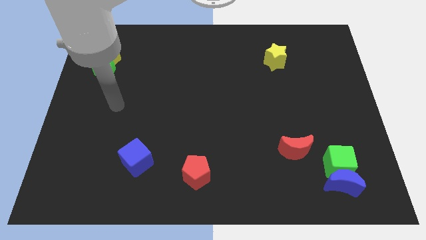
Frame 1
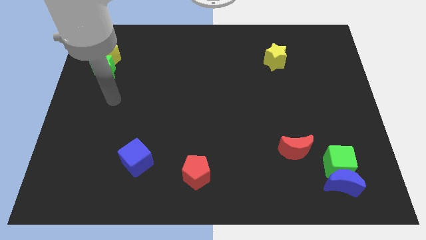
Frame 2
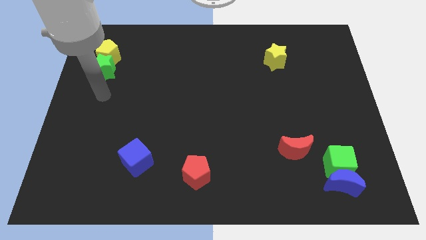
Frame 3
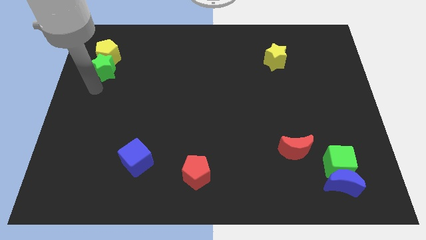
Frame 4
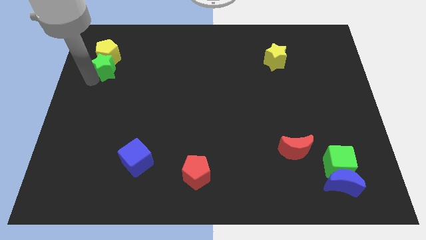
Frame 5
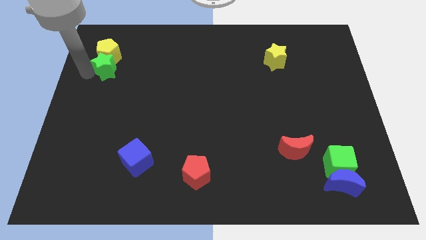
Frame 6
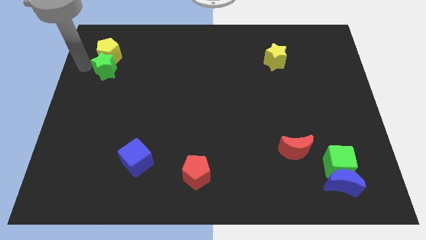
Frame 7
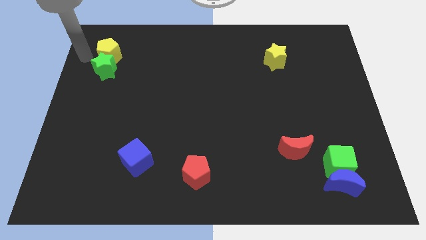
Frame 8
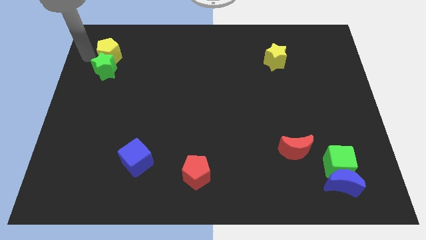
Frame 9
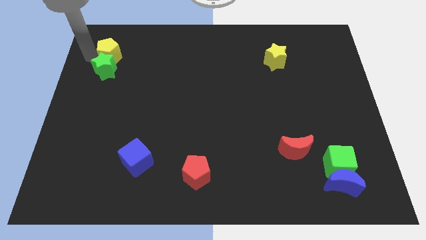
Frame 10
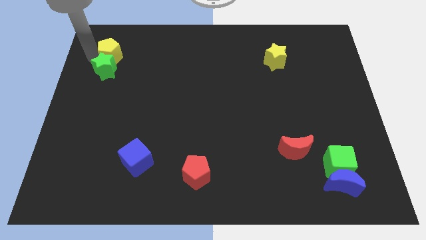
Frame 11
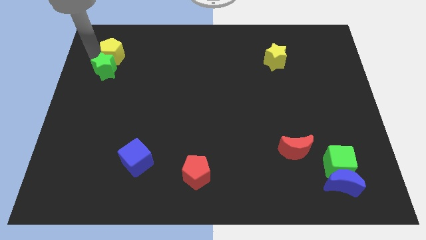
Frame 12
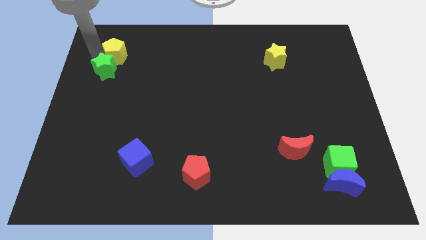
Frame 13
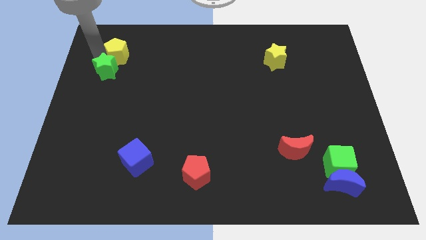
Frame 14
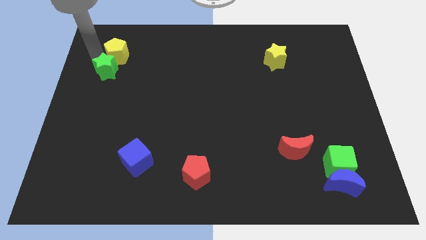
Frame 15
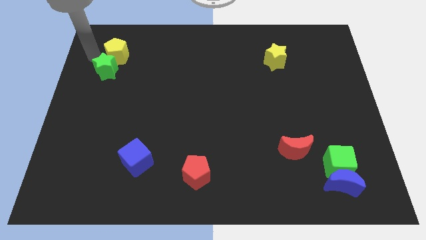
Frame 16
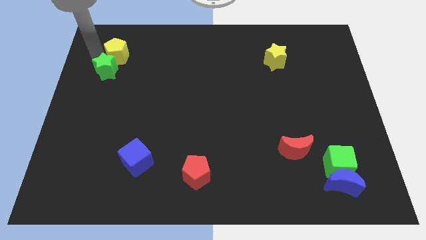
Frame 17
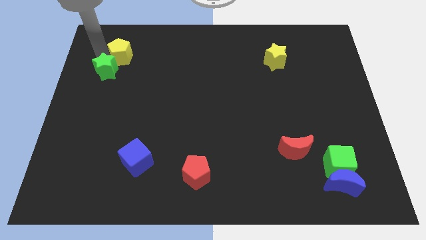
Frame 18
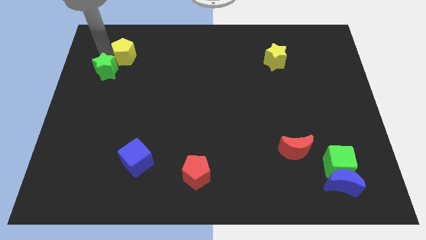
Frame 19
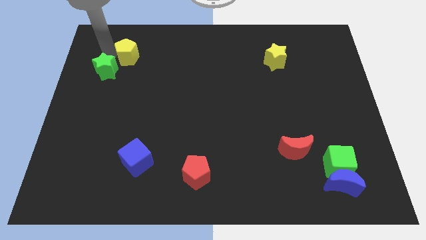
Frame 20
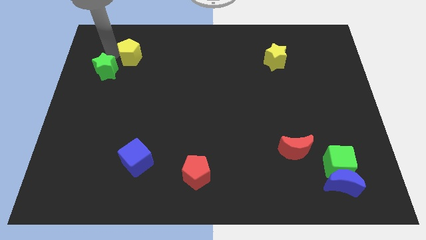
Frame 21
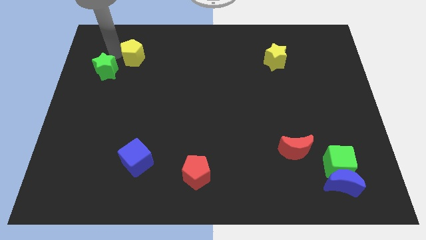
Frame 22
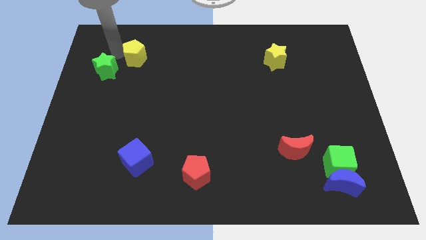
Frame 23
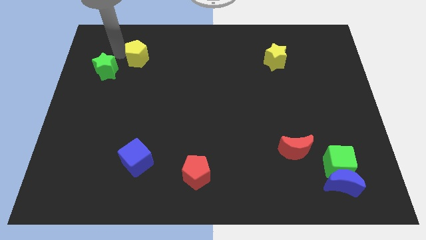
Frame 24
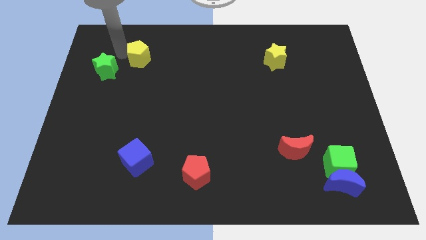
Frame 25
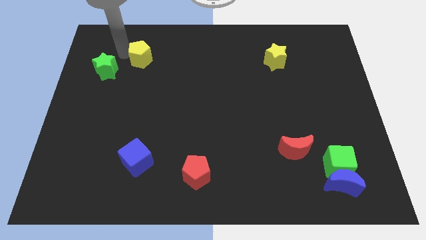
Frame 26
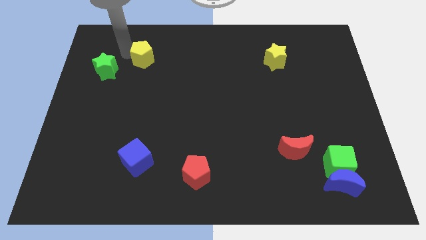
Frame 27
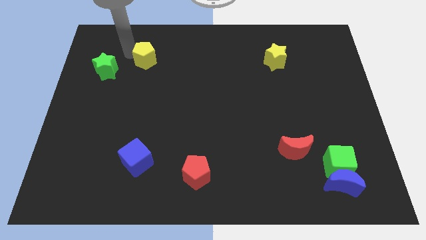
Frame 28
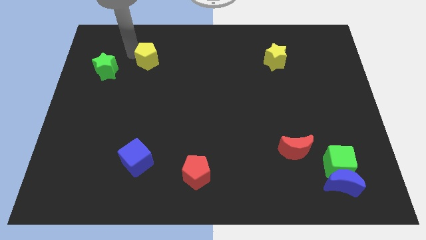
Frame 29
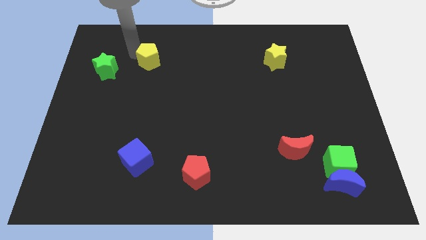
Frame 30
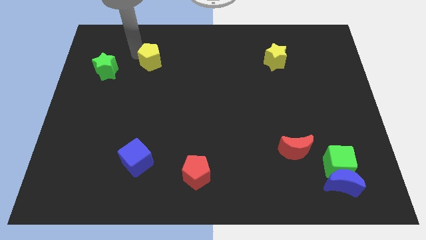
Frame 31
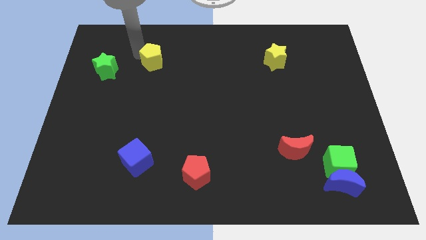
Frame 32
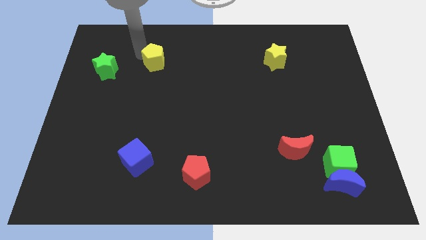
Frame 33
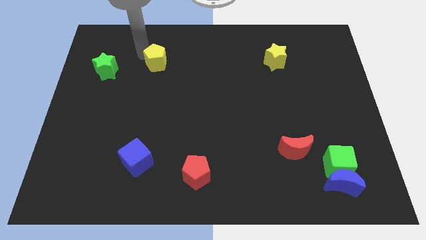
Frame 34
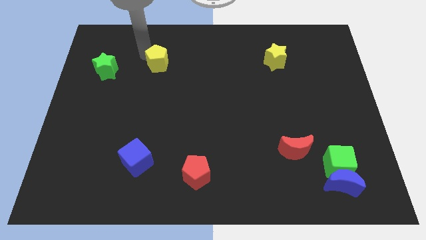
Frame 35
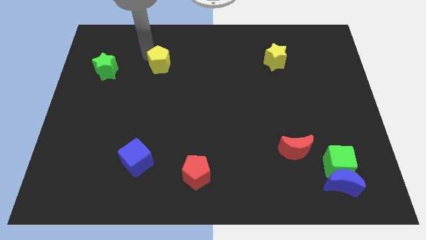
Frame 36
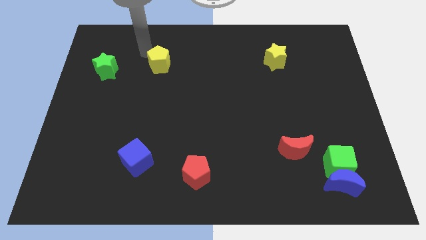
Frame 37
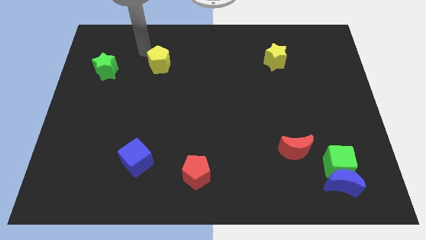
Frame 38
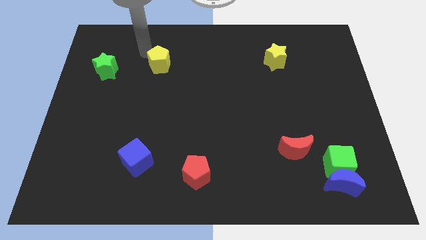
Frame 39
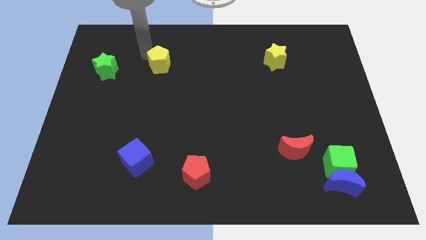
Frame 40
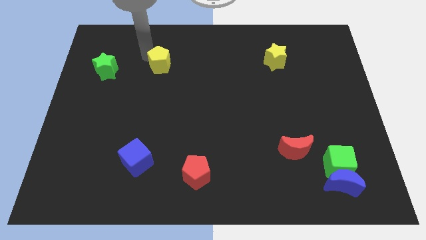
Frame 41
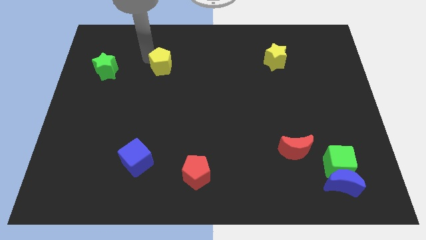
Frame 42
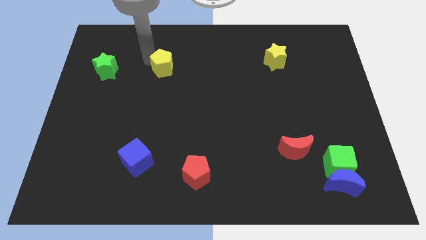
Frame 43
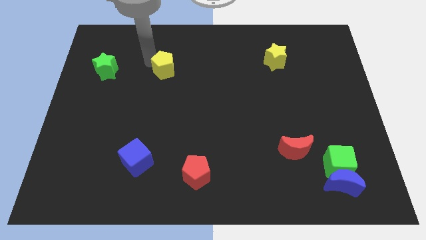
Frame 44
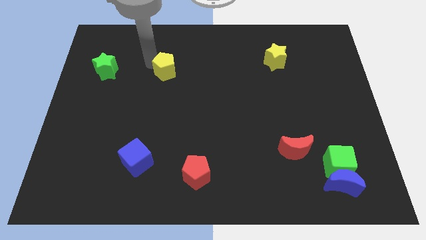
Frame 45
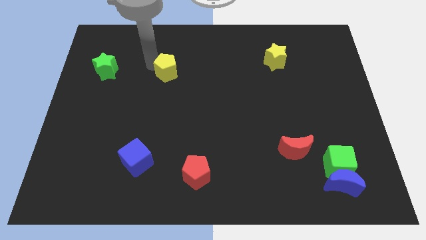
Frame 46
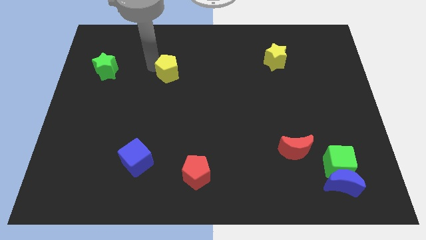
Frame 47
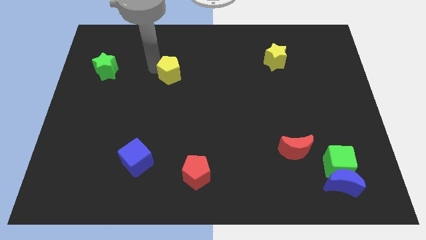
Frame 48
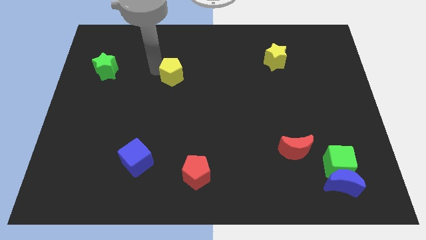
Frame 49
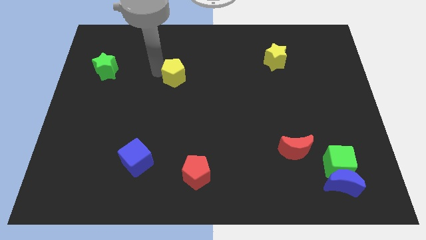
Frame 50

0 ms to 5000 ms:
put the yellow pentagon to the center
